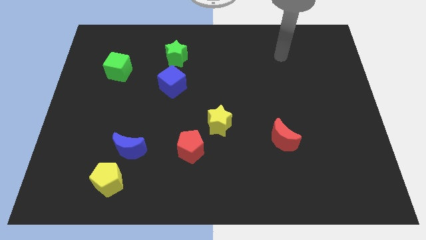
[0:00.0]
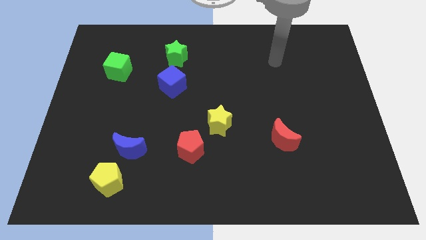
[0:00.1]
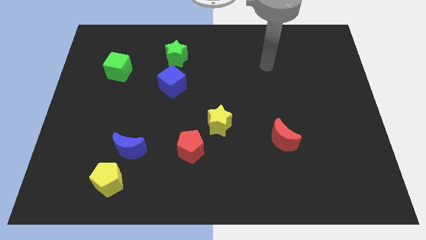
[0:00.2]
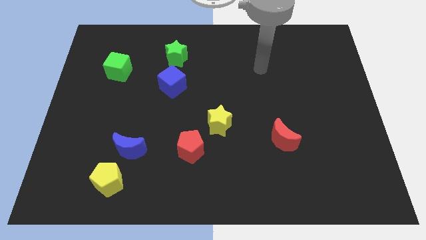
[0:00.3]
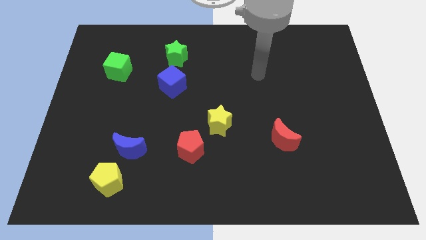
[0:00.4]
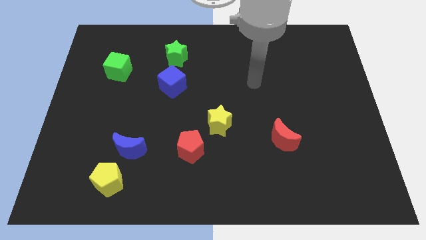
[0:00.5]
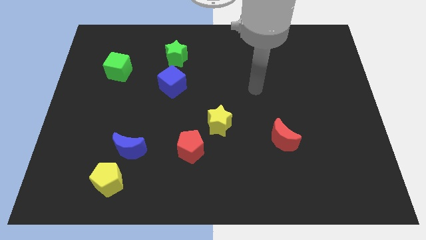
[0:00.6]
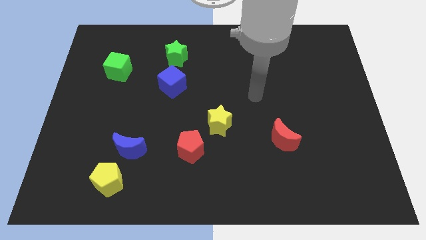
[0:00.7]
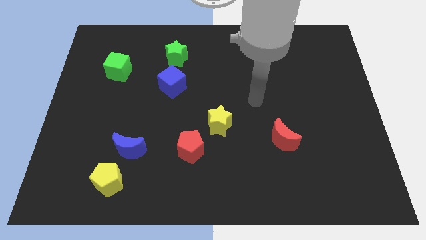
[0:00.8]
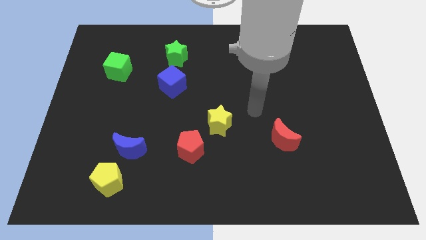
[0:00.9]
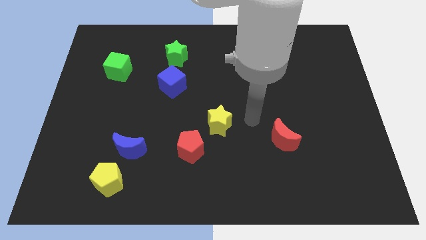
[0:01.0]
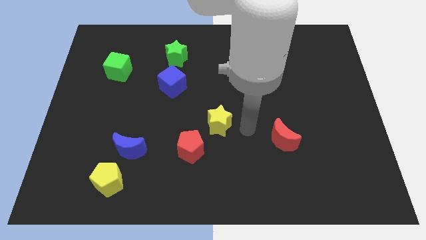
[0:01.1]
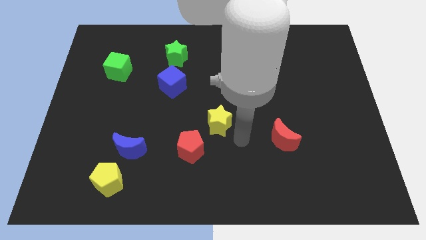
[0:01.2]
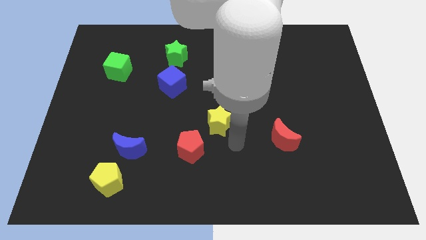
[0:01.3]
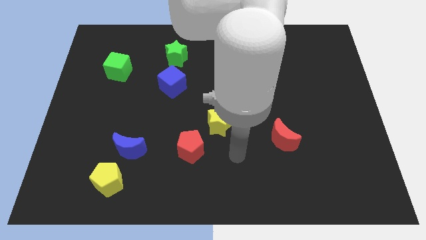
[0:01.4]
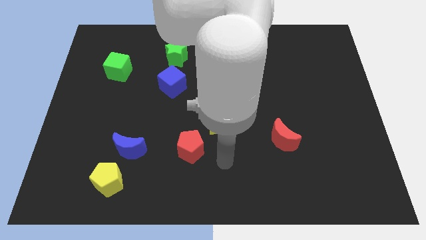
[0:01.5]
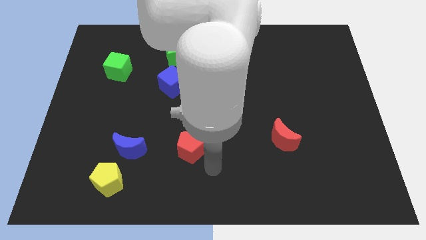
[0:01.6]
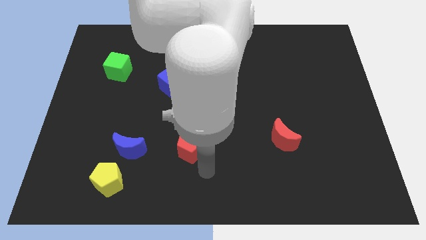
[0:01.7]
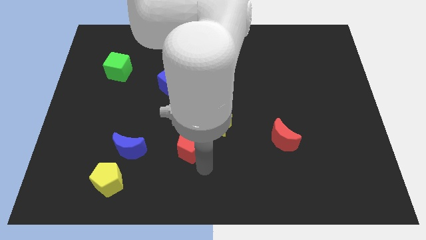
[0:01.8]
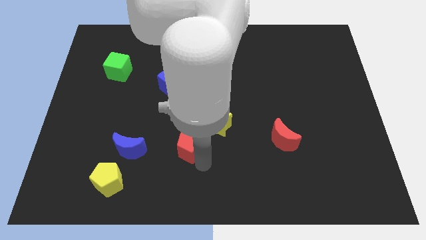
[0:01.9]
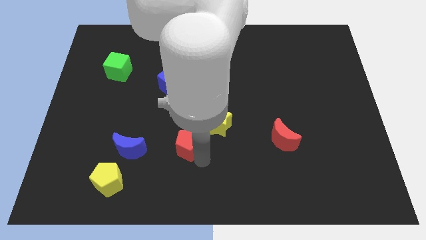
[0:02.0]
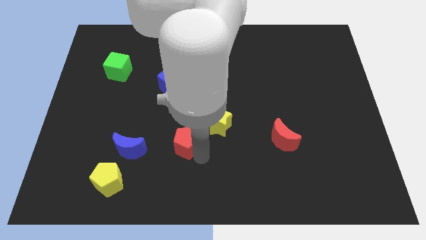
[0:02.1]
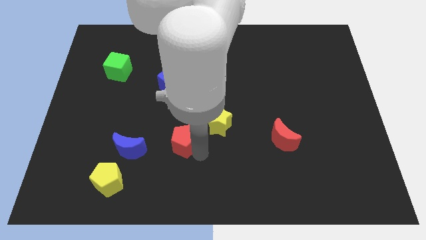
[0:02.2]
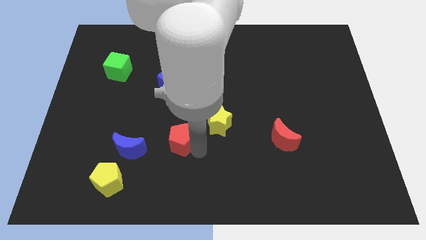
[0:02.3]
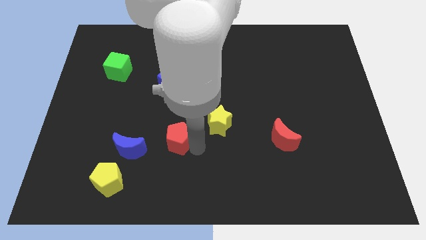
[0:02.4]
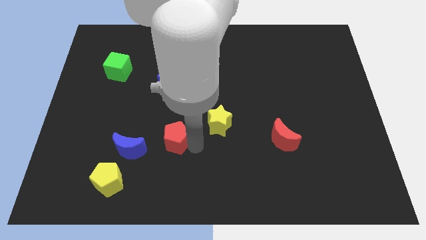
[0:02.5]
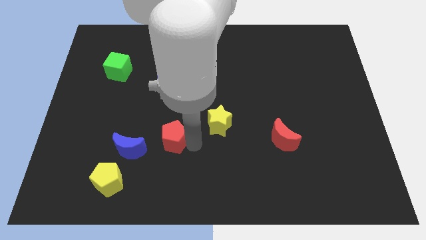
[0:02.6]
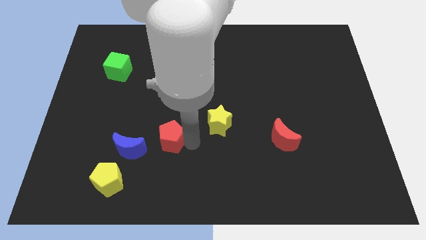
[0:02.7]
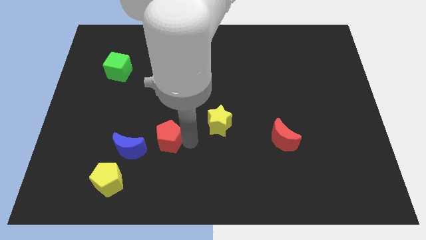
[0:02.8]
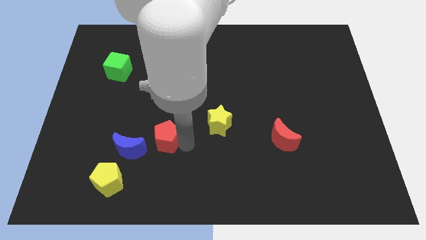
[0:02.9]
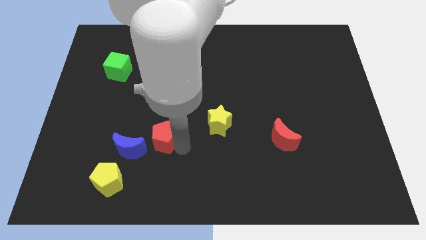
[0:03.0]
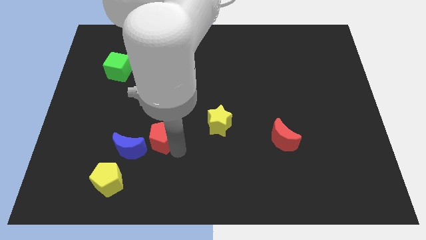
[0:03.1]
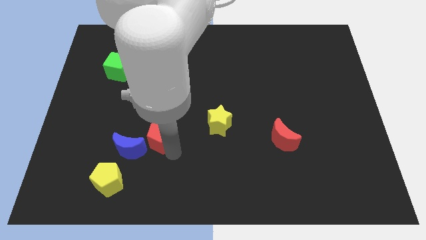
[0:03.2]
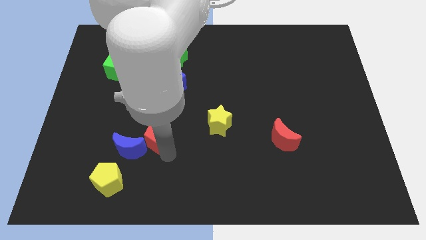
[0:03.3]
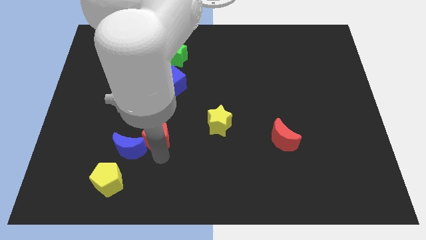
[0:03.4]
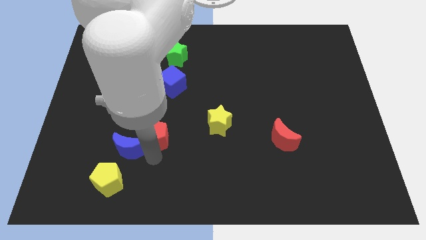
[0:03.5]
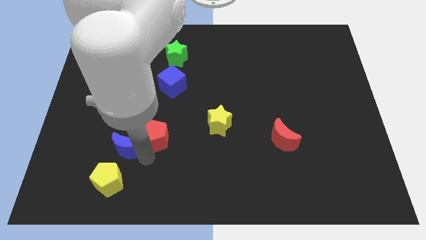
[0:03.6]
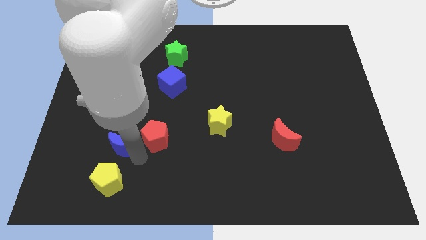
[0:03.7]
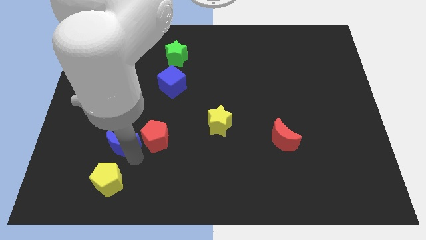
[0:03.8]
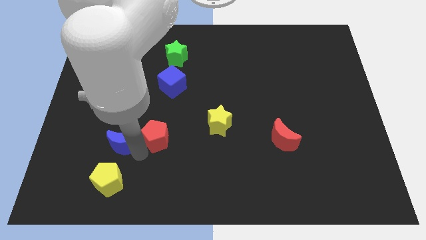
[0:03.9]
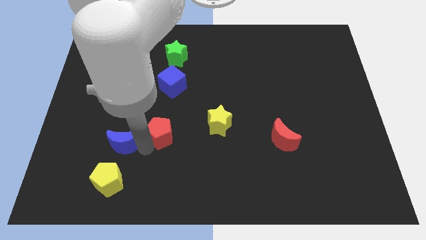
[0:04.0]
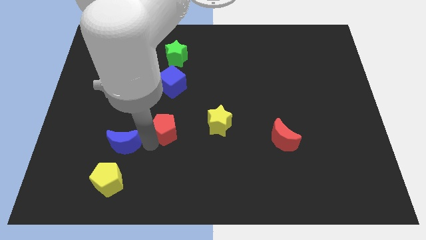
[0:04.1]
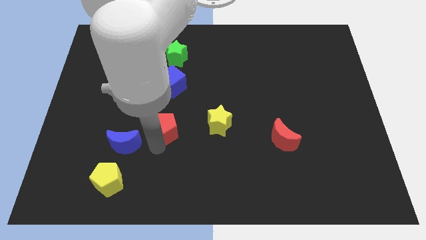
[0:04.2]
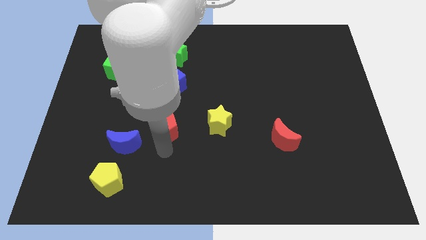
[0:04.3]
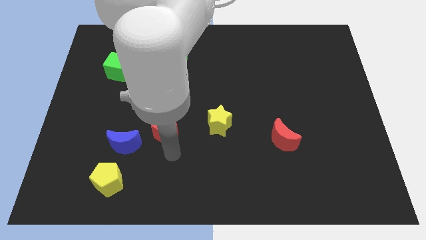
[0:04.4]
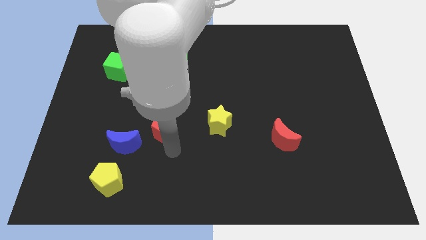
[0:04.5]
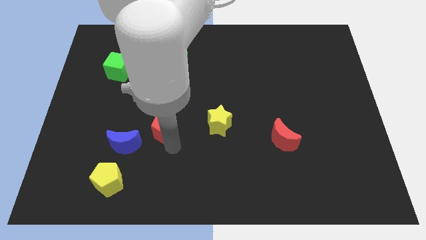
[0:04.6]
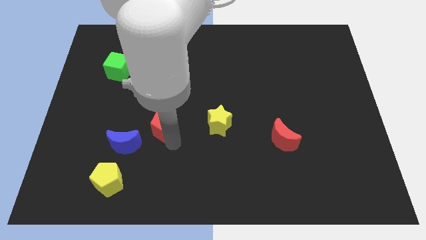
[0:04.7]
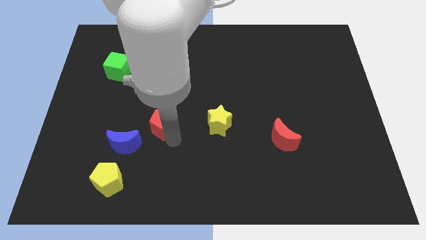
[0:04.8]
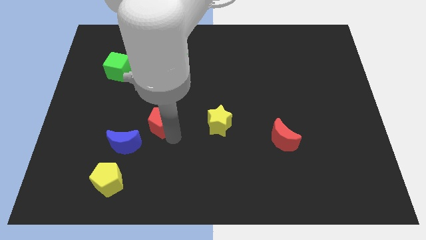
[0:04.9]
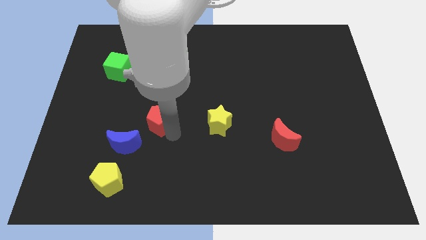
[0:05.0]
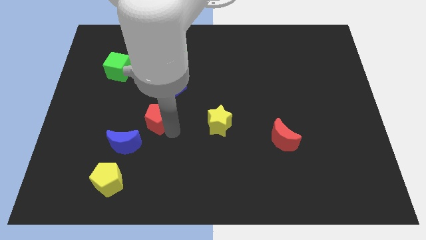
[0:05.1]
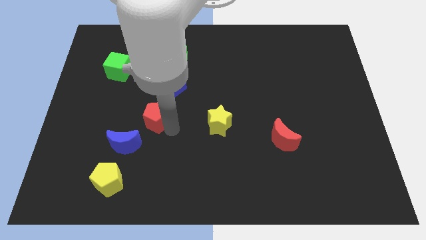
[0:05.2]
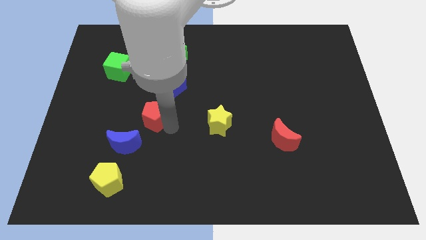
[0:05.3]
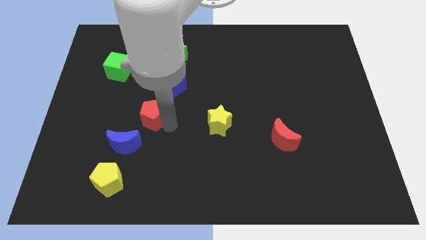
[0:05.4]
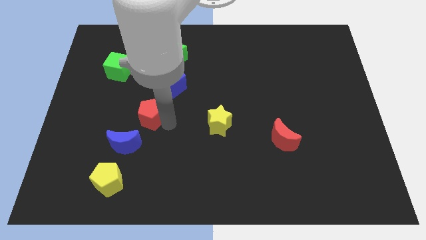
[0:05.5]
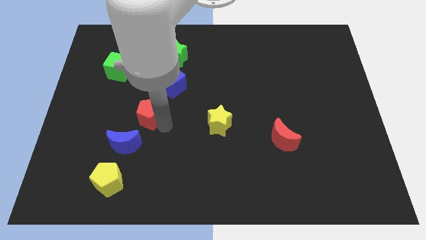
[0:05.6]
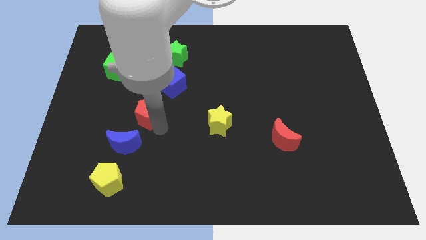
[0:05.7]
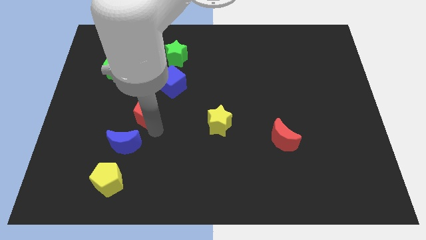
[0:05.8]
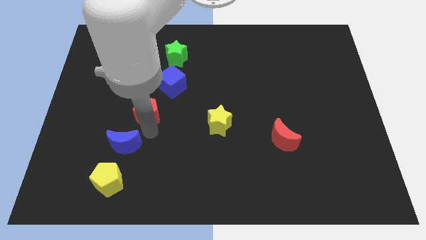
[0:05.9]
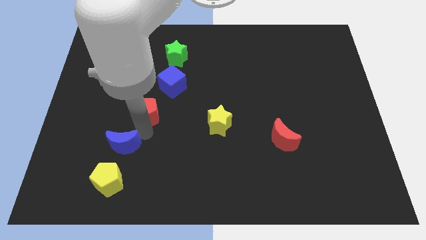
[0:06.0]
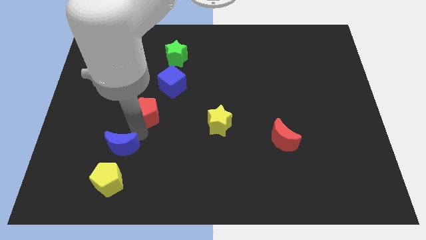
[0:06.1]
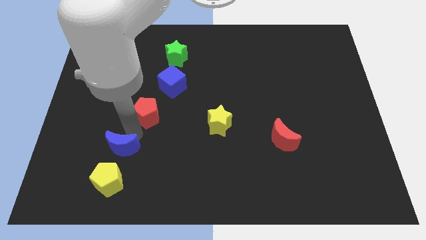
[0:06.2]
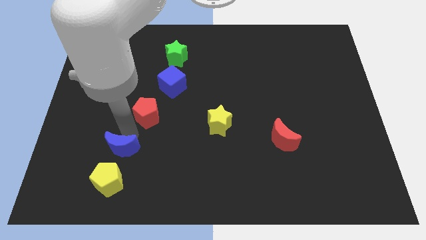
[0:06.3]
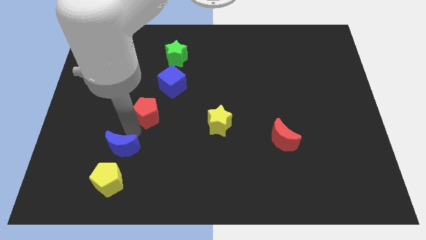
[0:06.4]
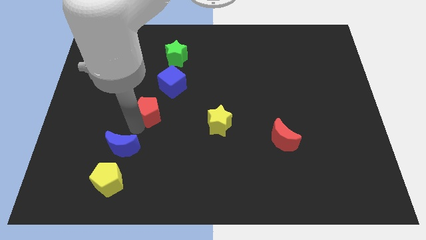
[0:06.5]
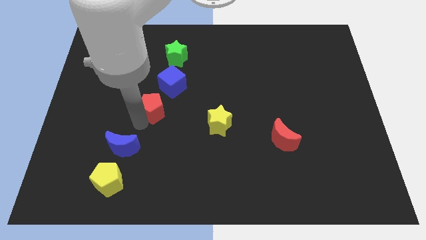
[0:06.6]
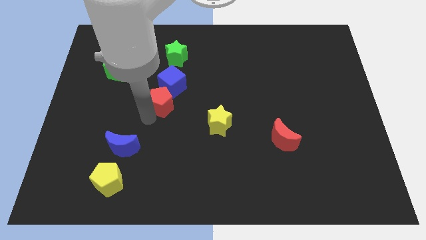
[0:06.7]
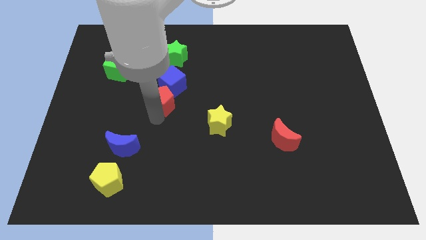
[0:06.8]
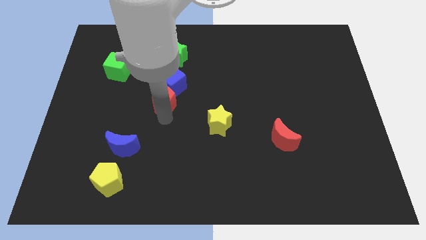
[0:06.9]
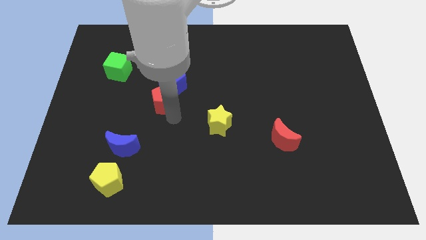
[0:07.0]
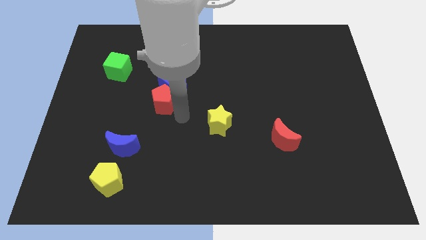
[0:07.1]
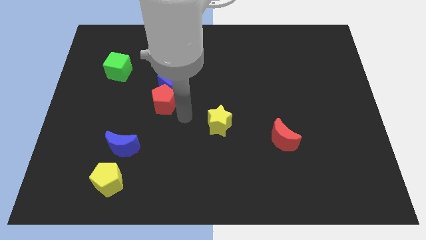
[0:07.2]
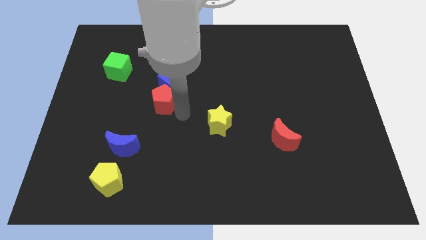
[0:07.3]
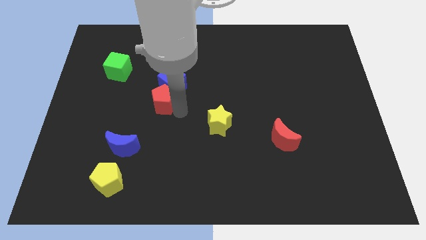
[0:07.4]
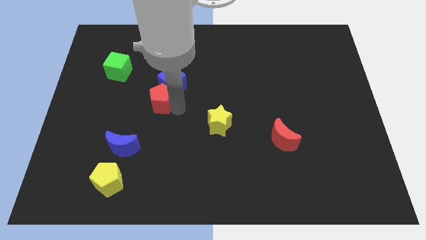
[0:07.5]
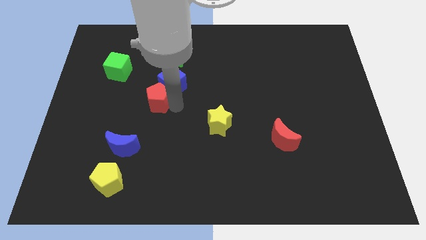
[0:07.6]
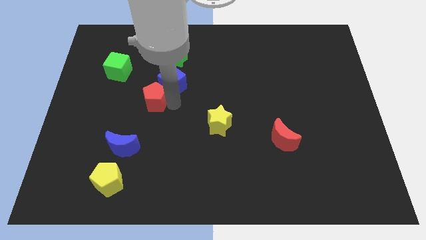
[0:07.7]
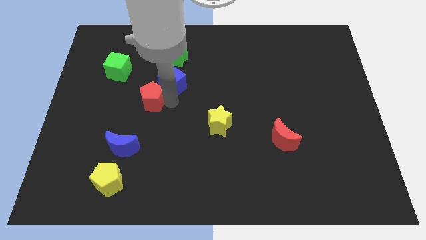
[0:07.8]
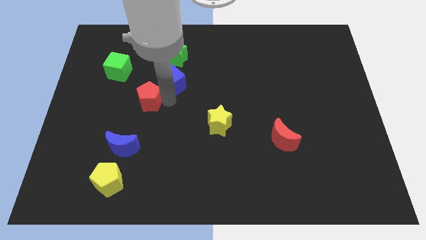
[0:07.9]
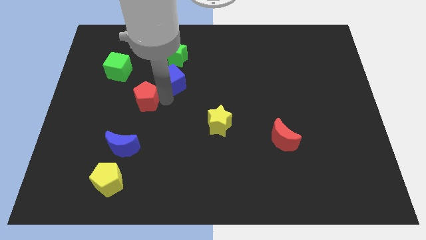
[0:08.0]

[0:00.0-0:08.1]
put the red pentagon to the bottom right of the green cube
